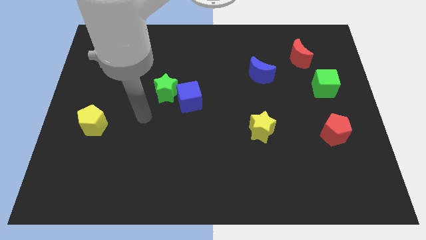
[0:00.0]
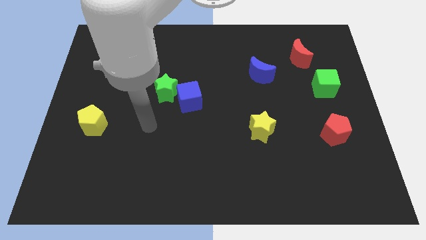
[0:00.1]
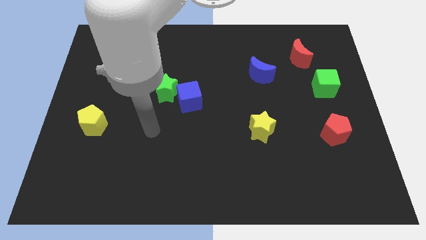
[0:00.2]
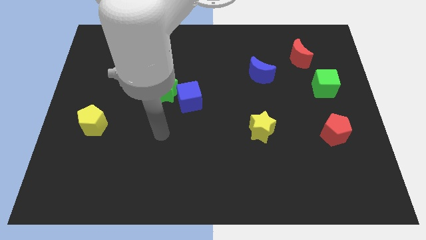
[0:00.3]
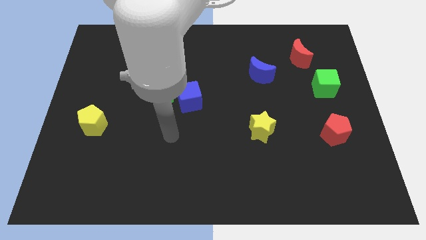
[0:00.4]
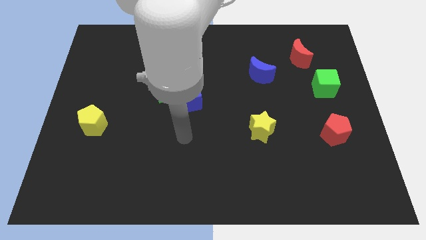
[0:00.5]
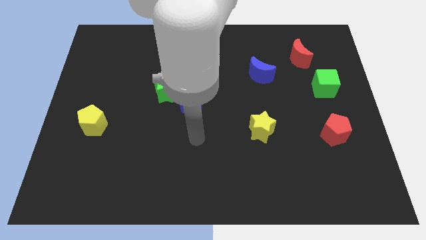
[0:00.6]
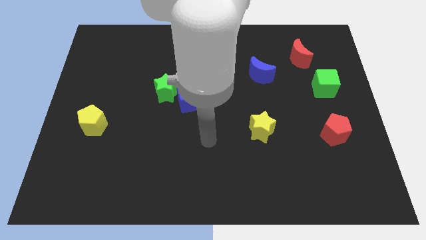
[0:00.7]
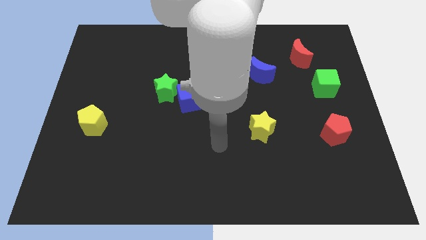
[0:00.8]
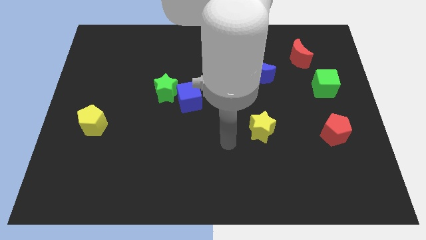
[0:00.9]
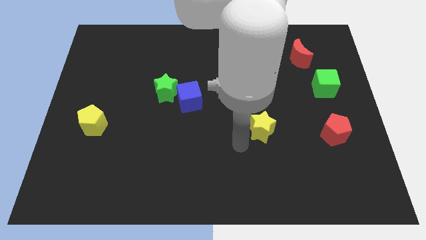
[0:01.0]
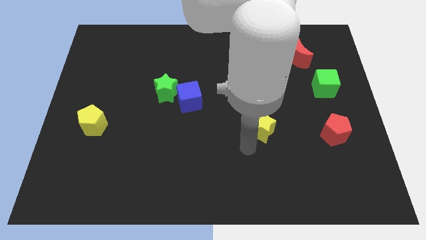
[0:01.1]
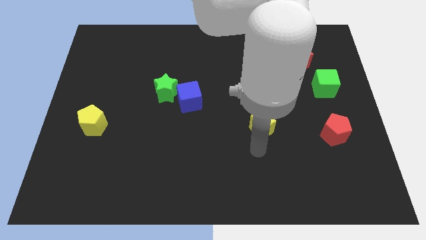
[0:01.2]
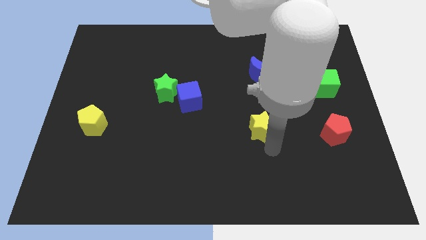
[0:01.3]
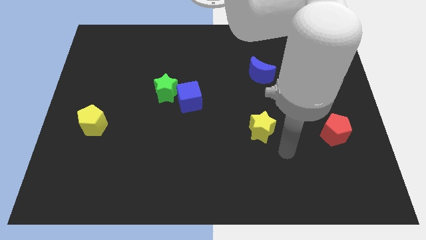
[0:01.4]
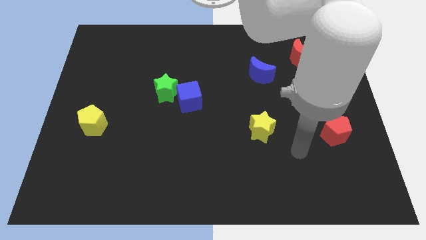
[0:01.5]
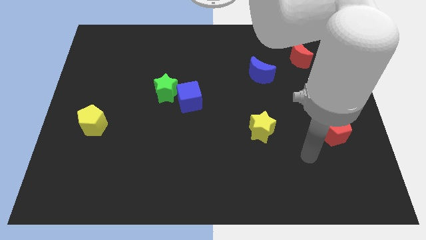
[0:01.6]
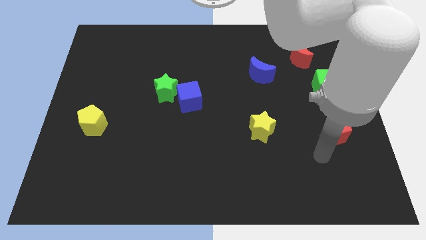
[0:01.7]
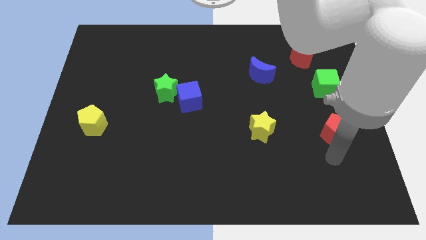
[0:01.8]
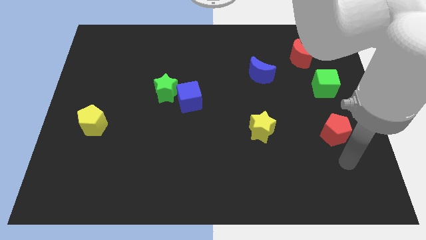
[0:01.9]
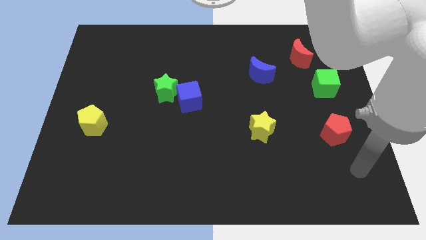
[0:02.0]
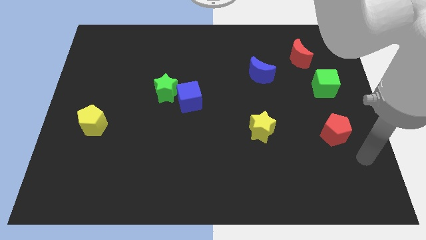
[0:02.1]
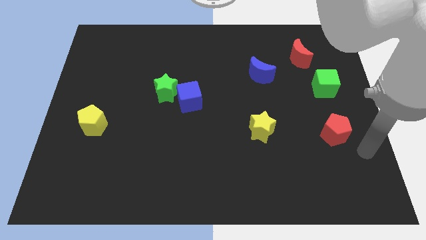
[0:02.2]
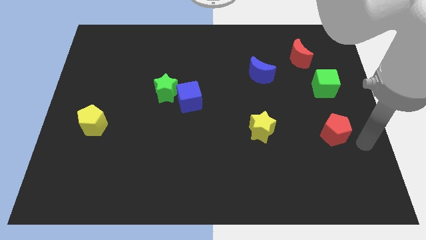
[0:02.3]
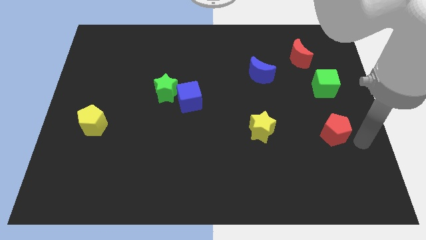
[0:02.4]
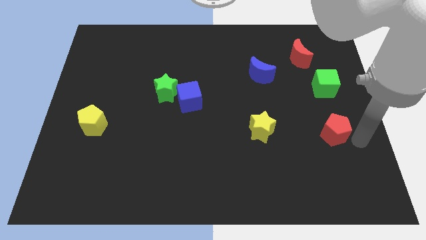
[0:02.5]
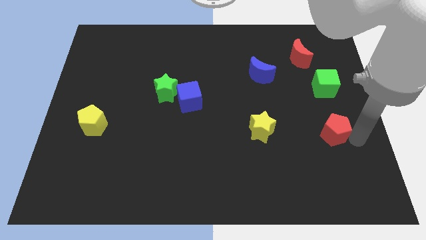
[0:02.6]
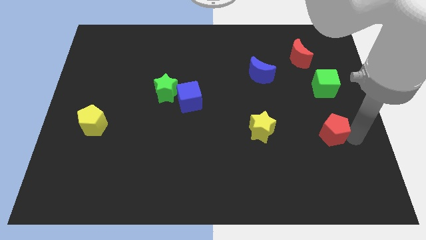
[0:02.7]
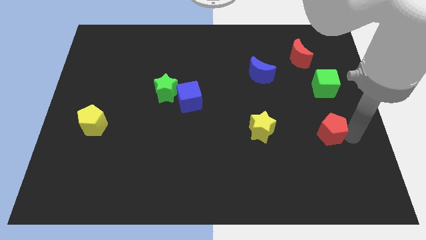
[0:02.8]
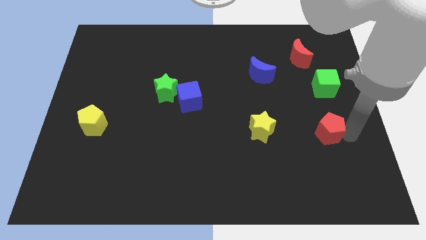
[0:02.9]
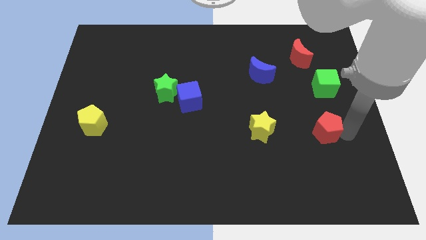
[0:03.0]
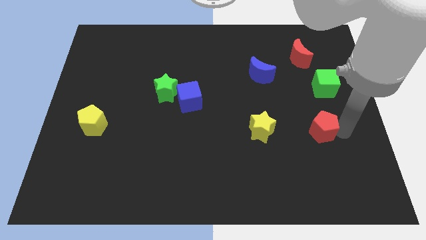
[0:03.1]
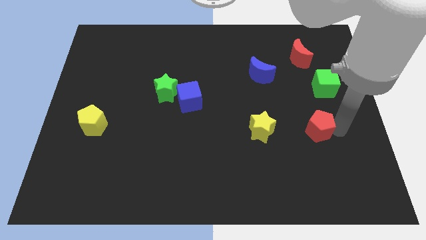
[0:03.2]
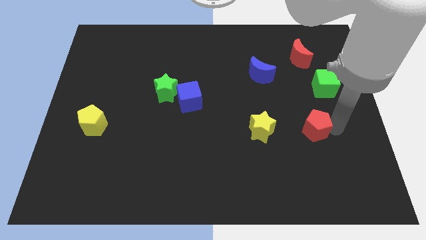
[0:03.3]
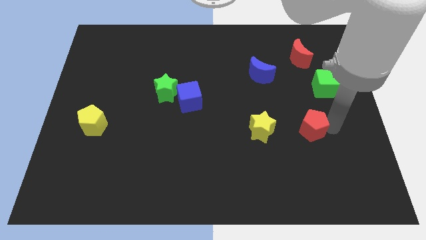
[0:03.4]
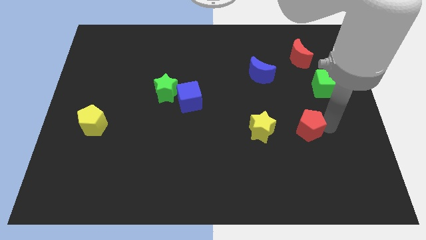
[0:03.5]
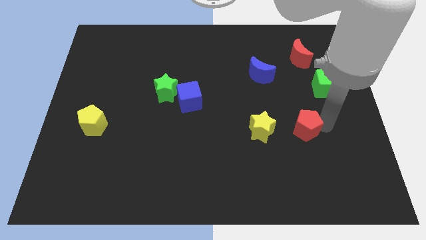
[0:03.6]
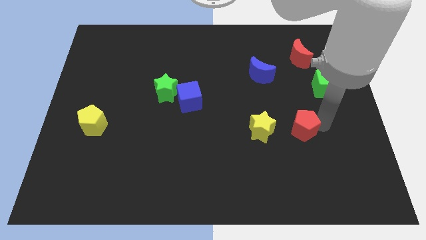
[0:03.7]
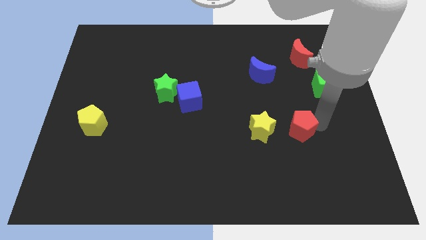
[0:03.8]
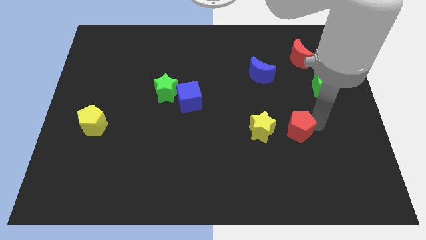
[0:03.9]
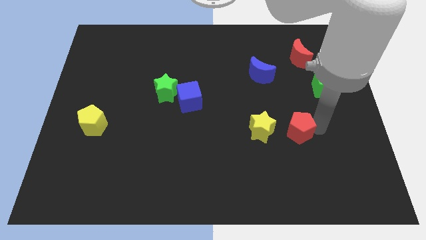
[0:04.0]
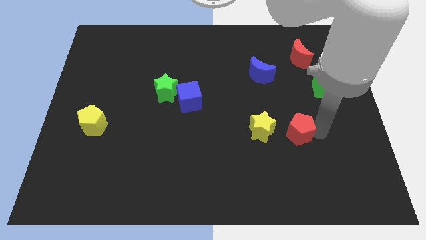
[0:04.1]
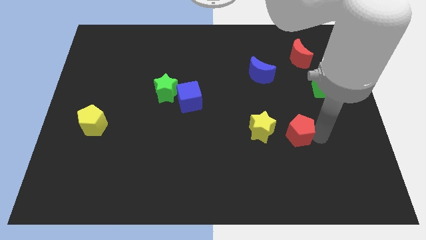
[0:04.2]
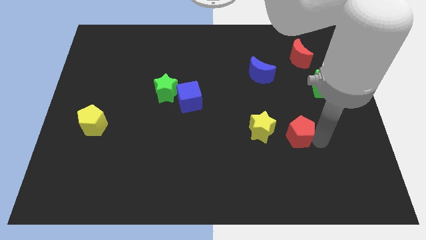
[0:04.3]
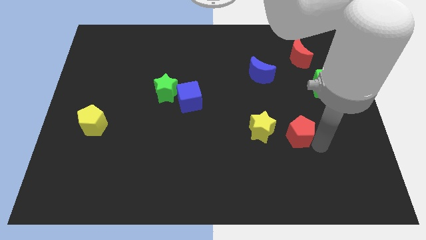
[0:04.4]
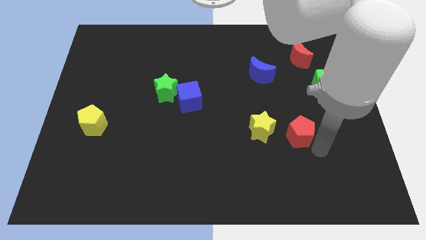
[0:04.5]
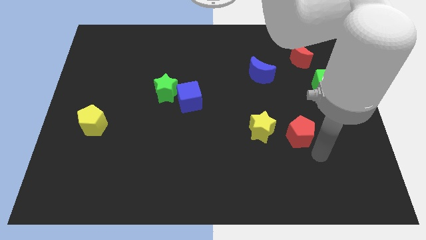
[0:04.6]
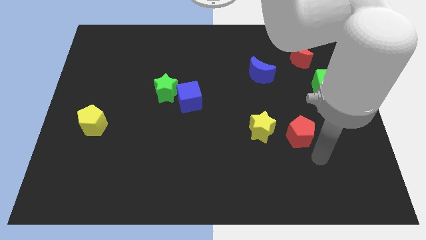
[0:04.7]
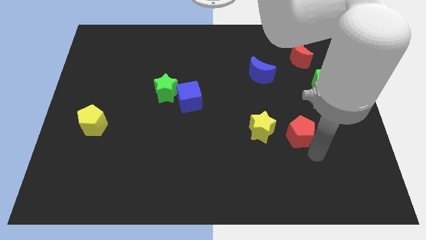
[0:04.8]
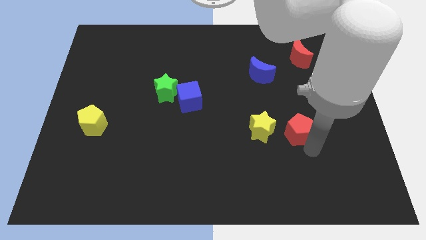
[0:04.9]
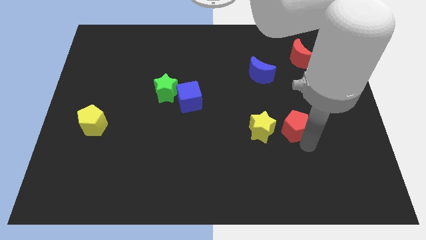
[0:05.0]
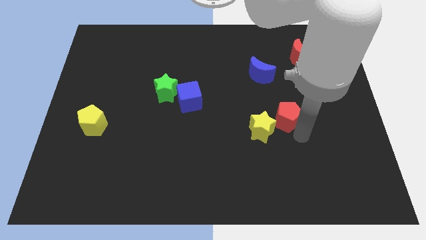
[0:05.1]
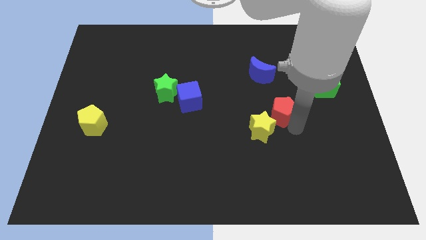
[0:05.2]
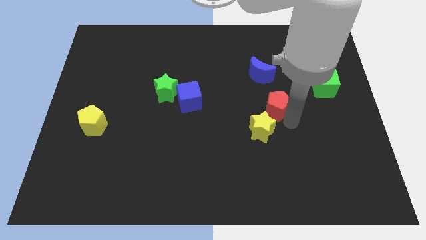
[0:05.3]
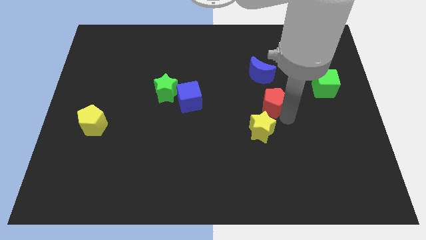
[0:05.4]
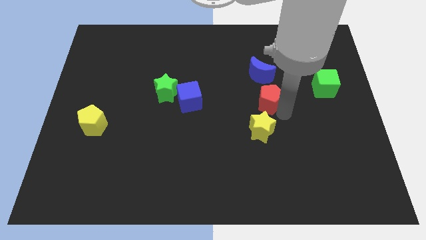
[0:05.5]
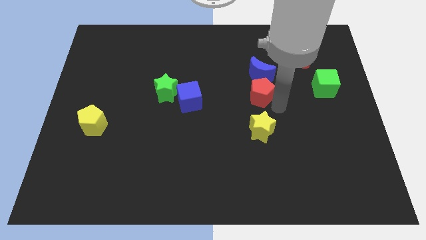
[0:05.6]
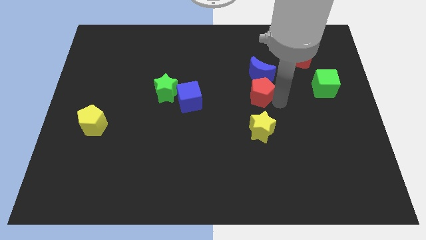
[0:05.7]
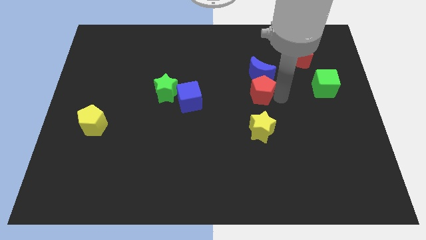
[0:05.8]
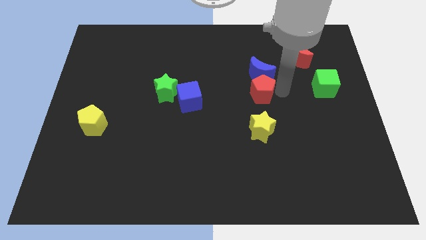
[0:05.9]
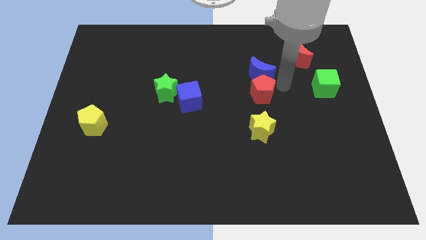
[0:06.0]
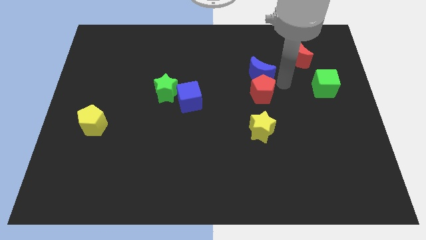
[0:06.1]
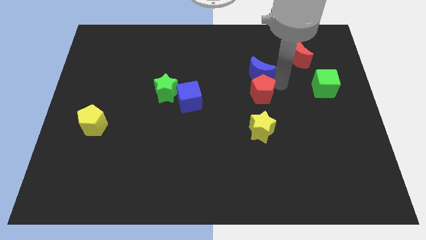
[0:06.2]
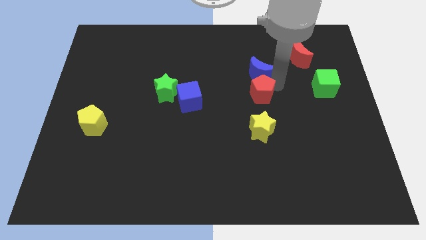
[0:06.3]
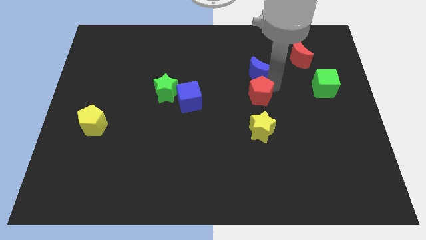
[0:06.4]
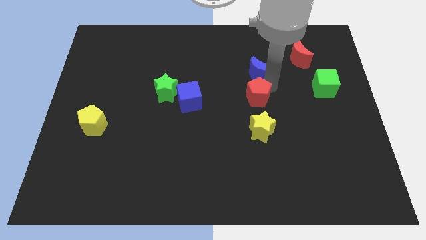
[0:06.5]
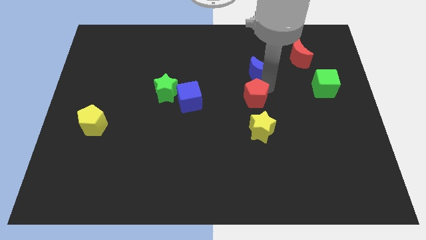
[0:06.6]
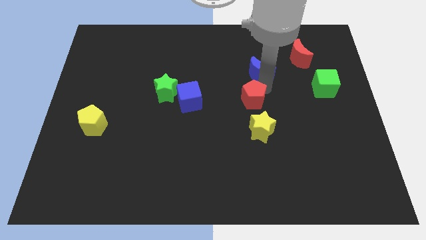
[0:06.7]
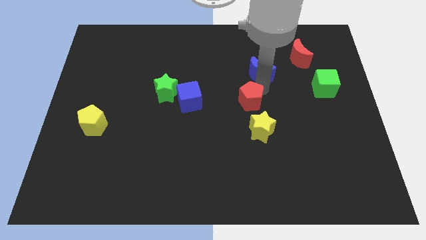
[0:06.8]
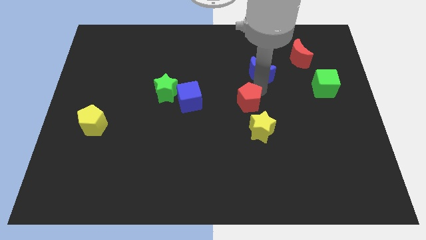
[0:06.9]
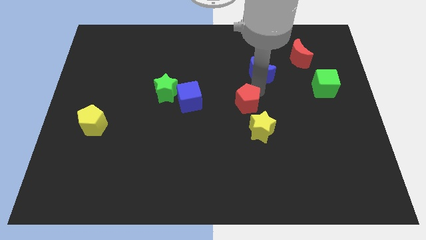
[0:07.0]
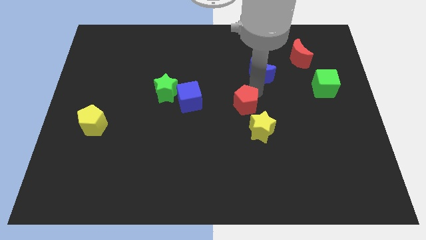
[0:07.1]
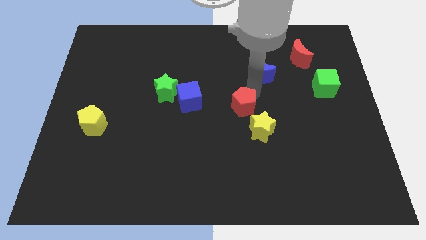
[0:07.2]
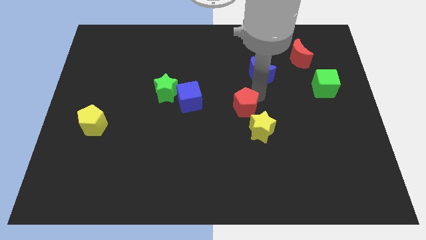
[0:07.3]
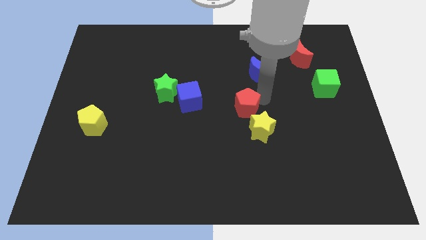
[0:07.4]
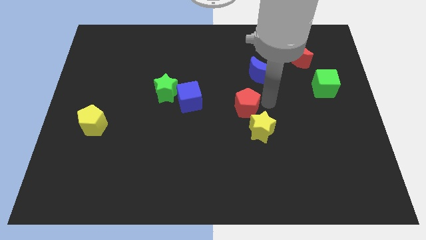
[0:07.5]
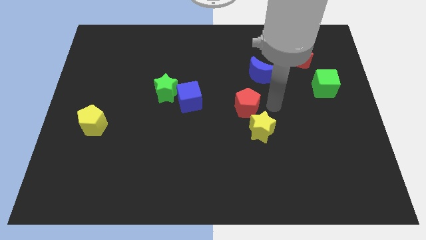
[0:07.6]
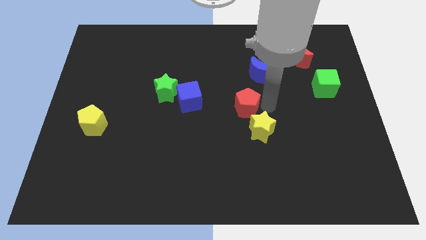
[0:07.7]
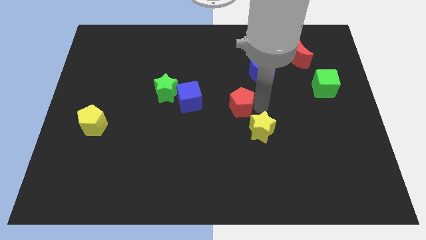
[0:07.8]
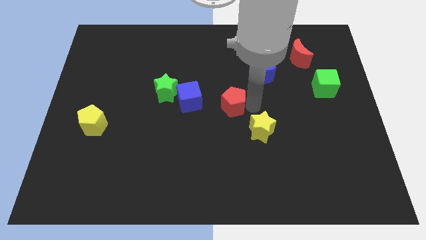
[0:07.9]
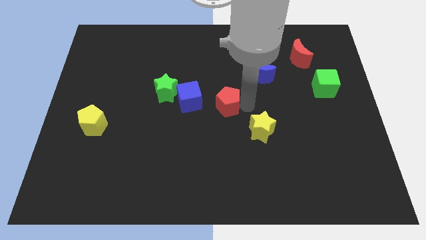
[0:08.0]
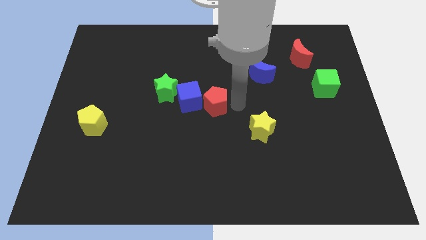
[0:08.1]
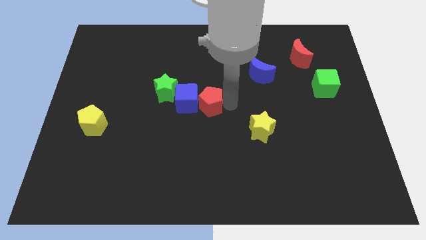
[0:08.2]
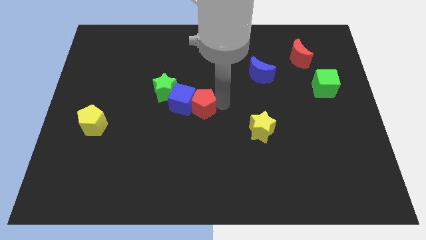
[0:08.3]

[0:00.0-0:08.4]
move the red pentagon diagonally down and to the right of the green star
